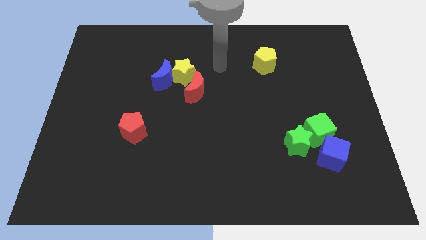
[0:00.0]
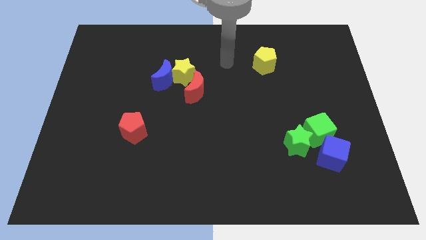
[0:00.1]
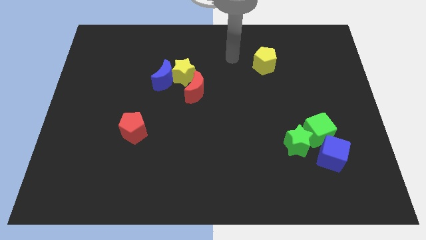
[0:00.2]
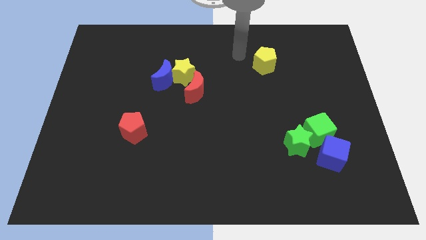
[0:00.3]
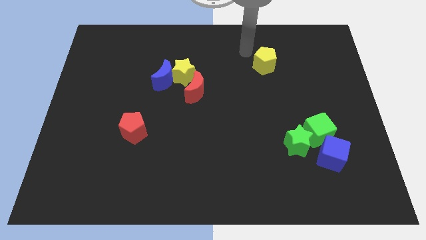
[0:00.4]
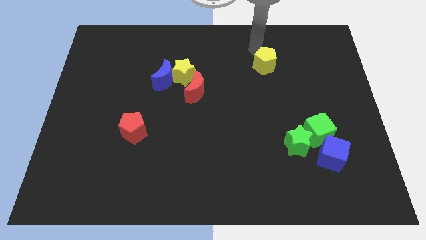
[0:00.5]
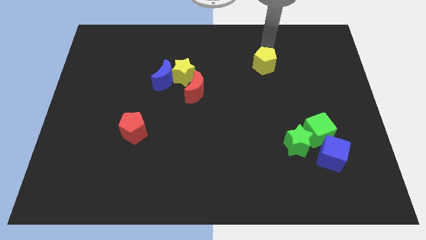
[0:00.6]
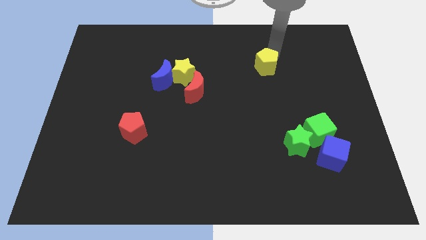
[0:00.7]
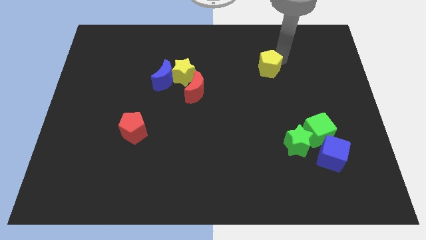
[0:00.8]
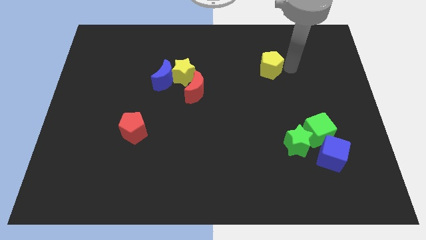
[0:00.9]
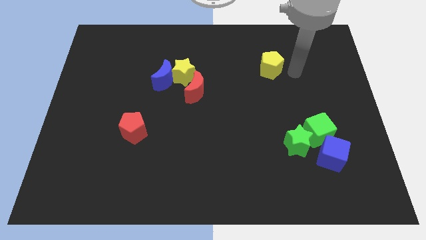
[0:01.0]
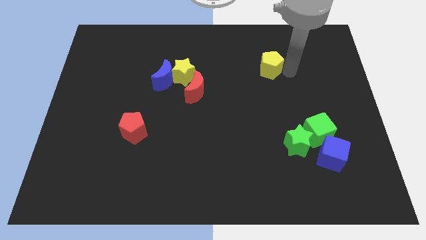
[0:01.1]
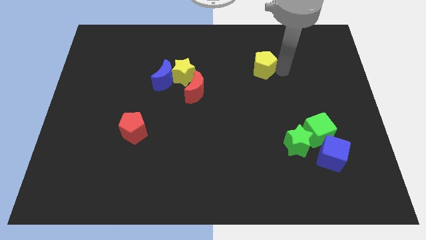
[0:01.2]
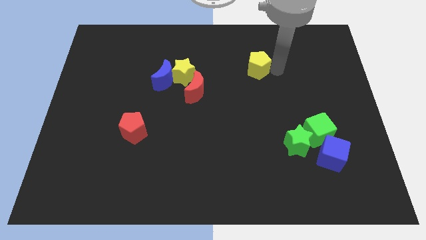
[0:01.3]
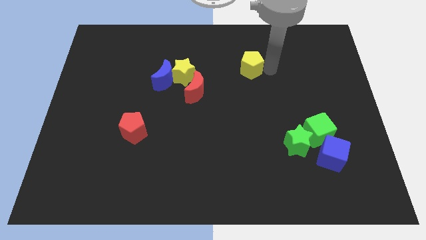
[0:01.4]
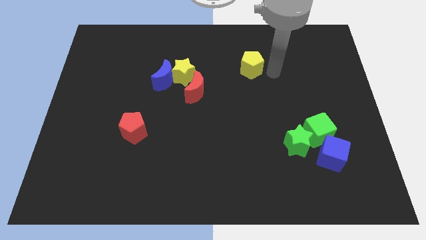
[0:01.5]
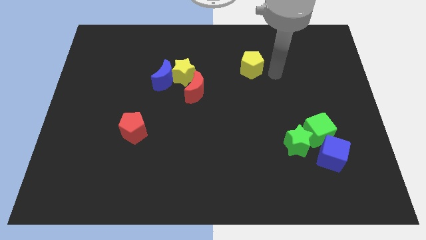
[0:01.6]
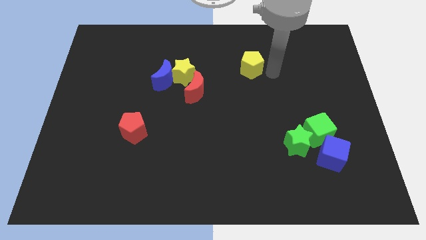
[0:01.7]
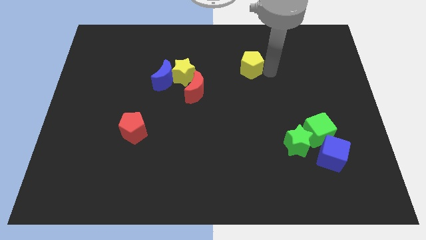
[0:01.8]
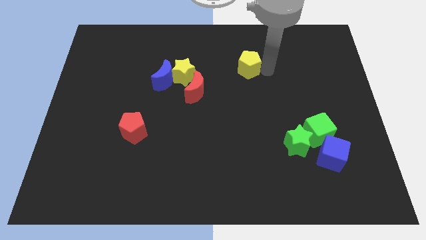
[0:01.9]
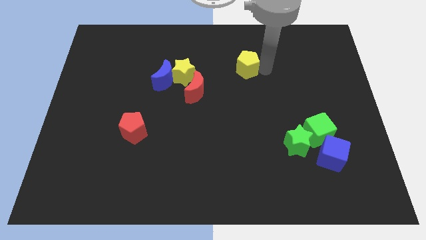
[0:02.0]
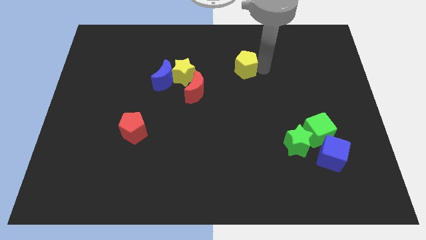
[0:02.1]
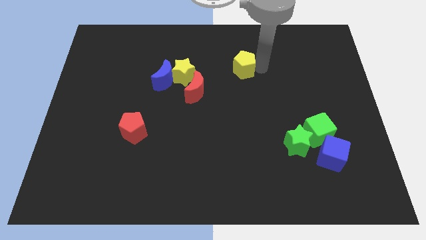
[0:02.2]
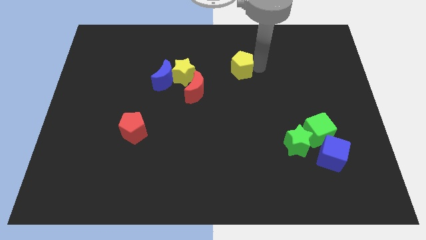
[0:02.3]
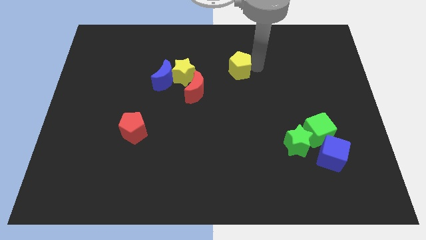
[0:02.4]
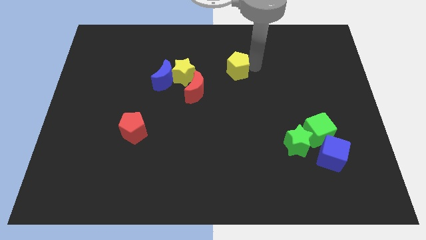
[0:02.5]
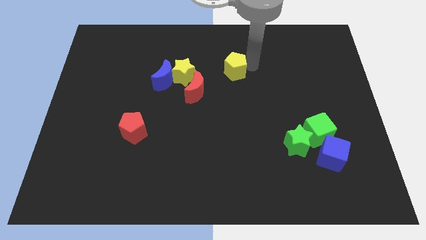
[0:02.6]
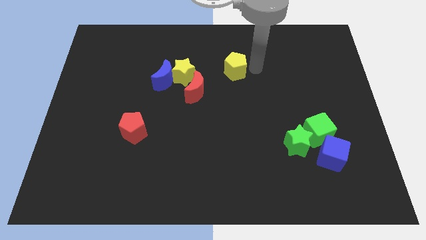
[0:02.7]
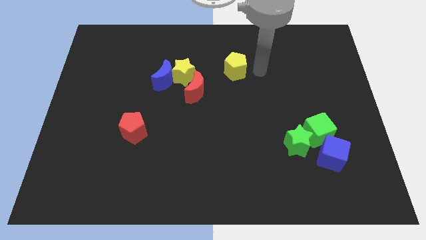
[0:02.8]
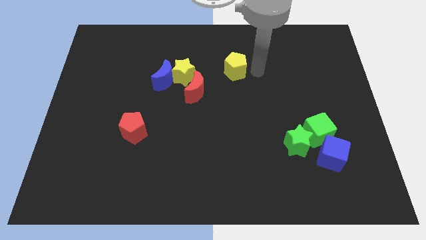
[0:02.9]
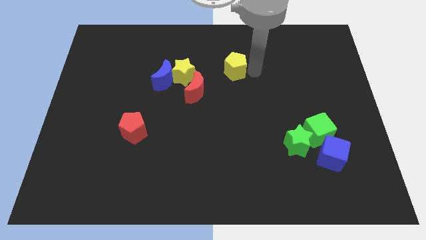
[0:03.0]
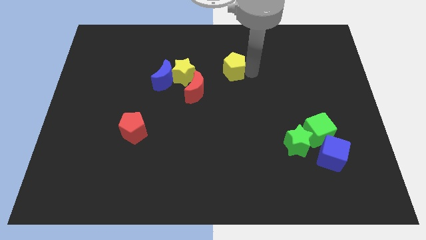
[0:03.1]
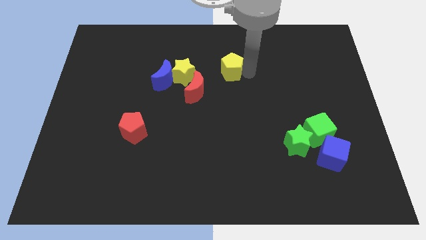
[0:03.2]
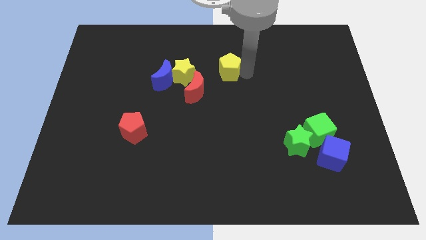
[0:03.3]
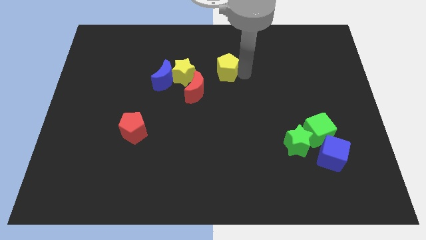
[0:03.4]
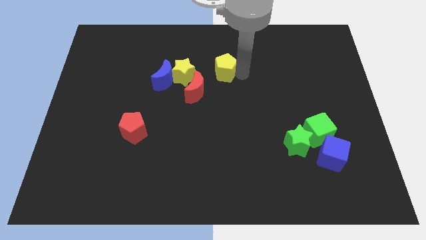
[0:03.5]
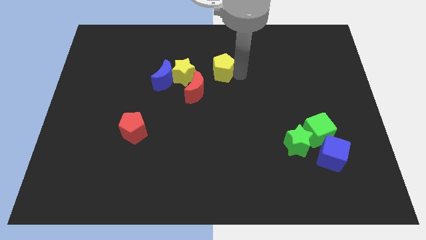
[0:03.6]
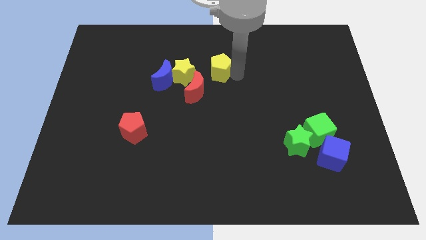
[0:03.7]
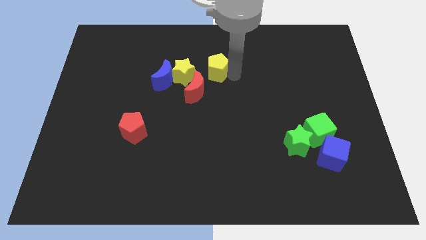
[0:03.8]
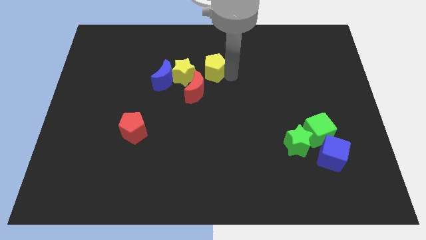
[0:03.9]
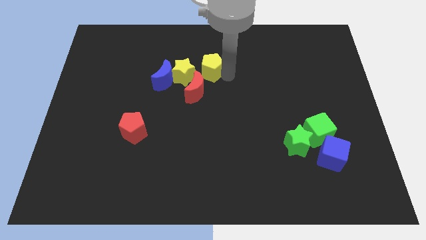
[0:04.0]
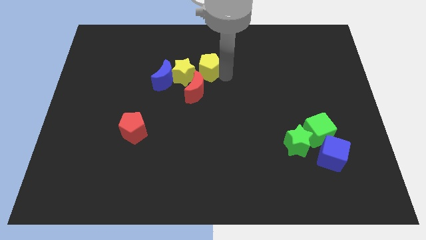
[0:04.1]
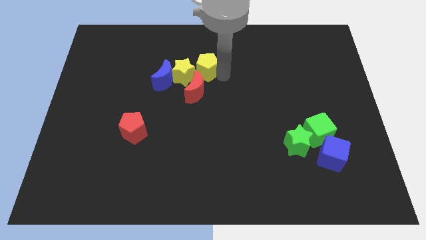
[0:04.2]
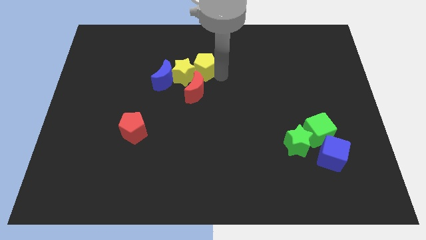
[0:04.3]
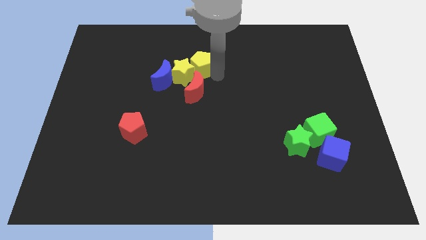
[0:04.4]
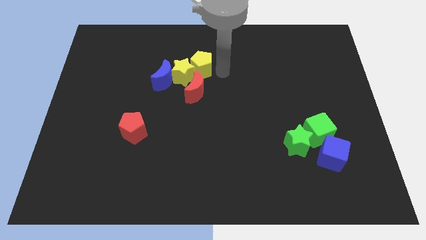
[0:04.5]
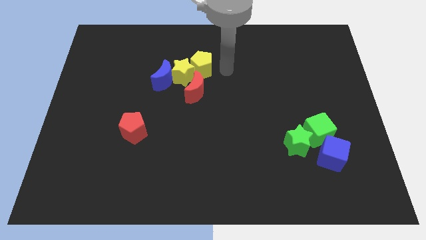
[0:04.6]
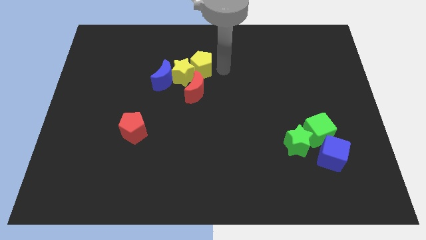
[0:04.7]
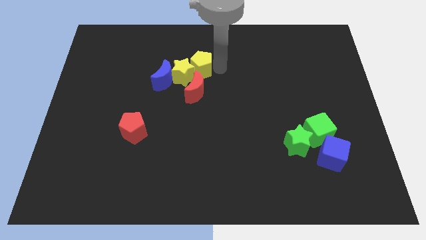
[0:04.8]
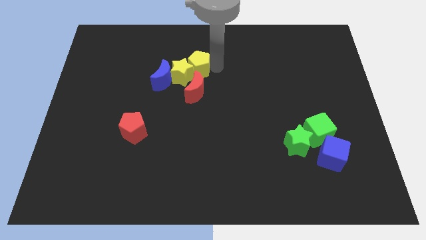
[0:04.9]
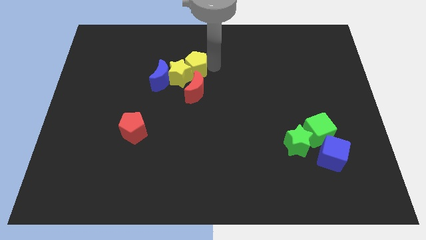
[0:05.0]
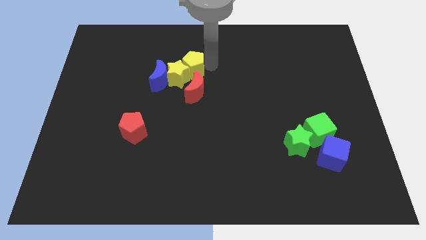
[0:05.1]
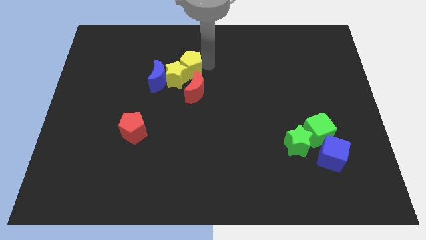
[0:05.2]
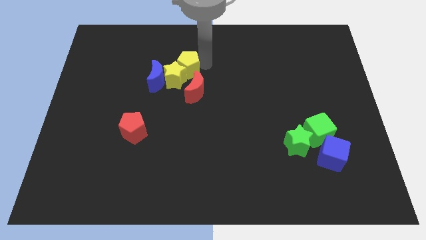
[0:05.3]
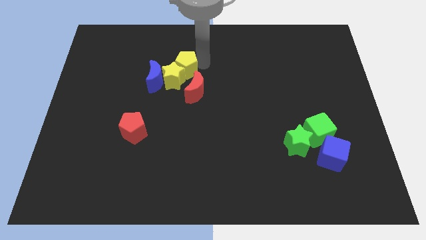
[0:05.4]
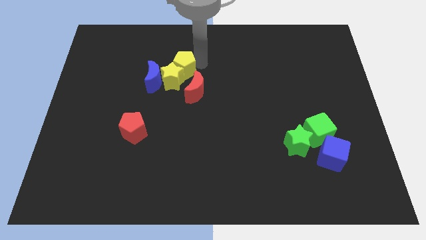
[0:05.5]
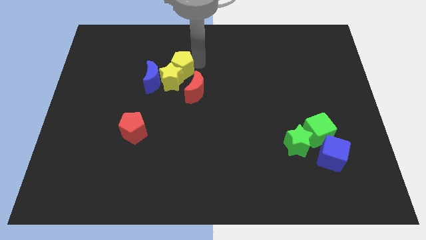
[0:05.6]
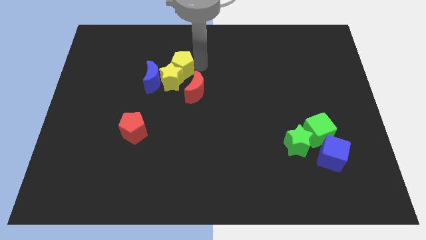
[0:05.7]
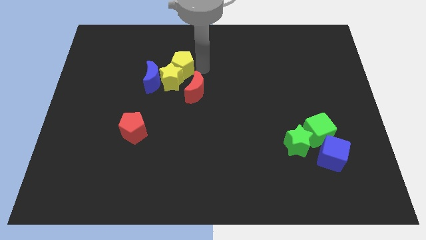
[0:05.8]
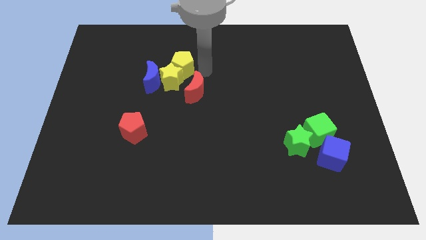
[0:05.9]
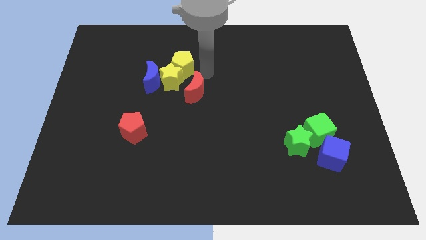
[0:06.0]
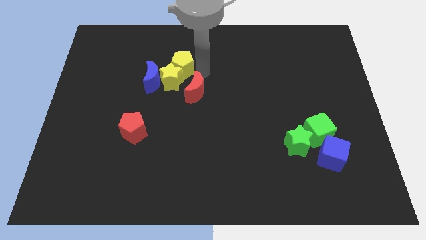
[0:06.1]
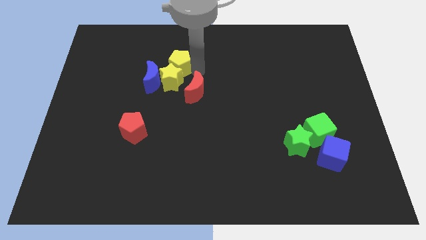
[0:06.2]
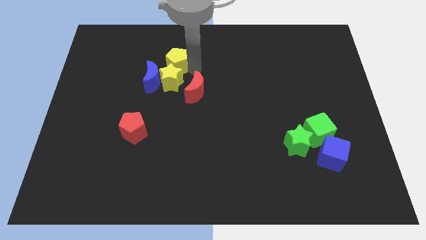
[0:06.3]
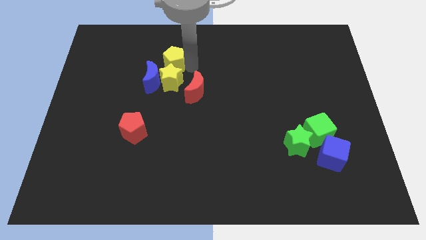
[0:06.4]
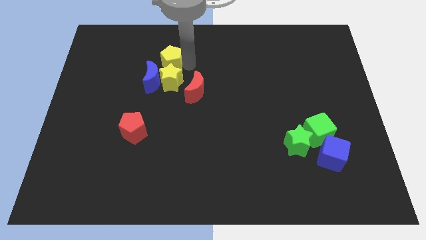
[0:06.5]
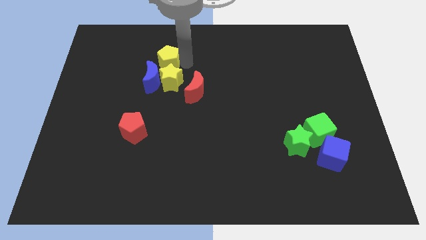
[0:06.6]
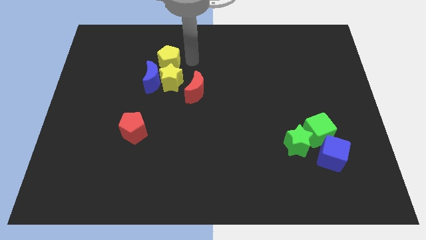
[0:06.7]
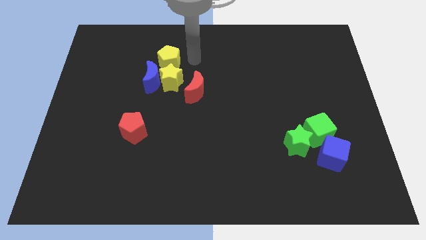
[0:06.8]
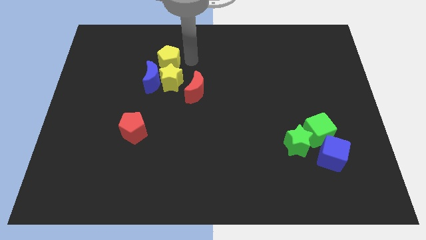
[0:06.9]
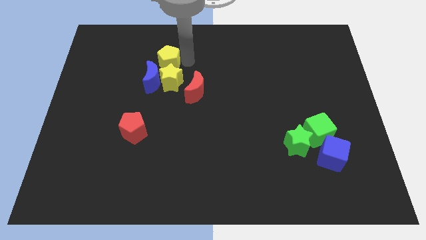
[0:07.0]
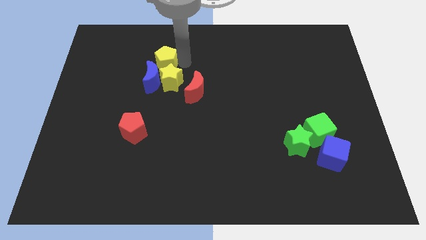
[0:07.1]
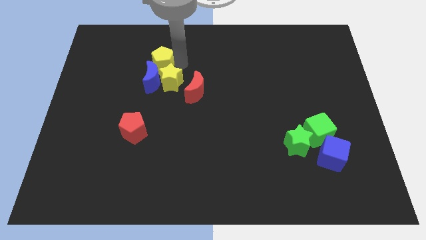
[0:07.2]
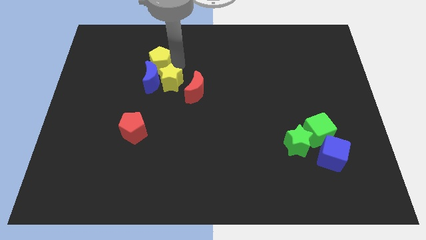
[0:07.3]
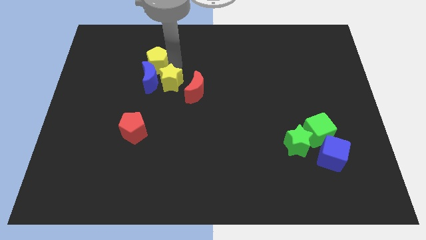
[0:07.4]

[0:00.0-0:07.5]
put the yellow pentagon to the top left side of the blue moon
